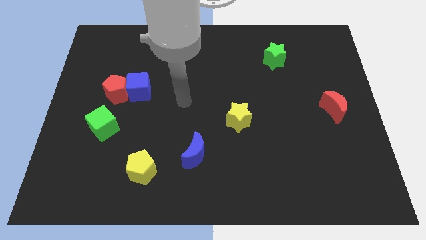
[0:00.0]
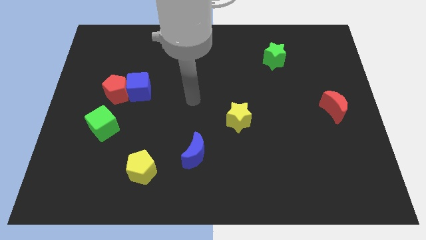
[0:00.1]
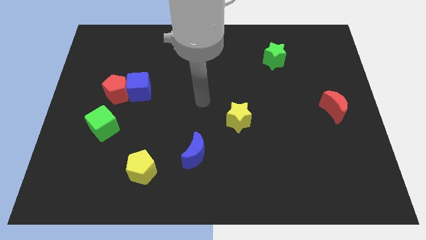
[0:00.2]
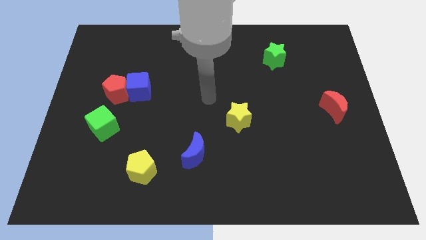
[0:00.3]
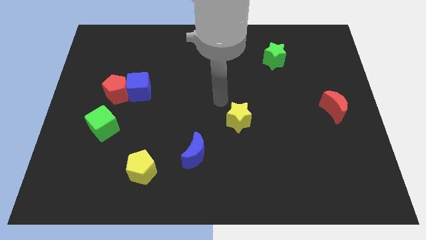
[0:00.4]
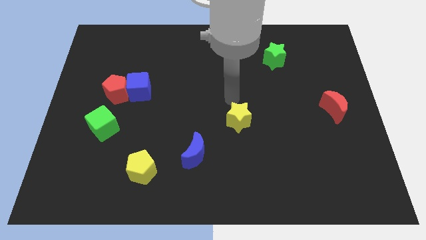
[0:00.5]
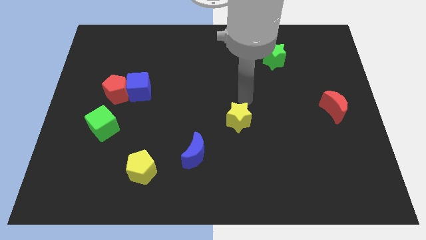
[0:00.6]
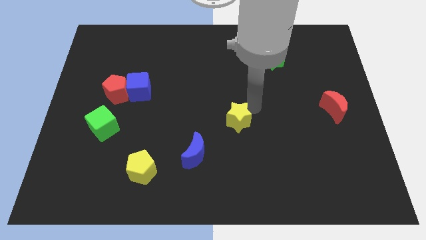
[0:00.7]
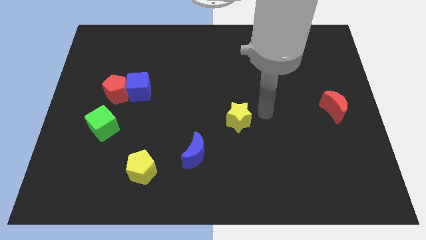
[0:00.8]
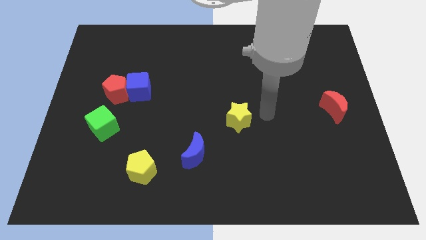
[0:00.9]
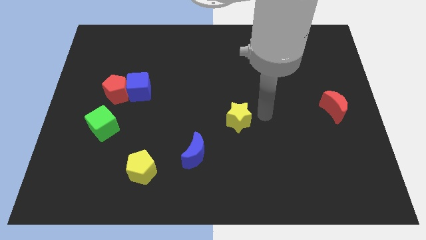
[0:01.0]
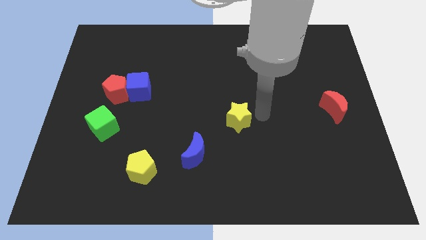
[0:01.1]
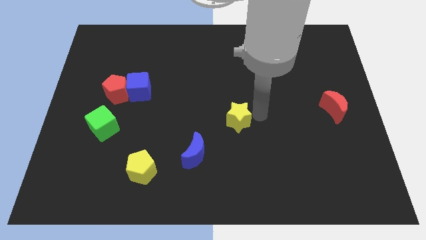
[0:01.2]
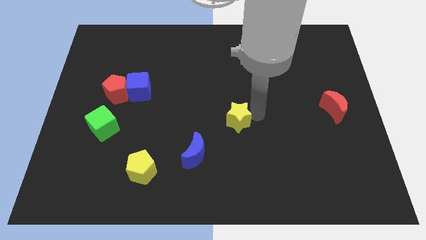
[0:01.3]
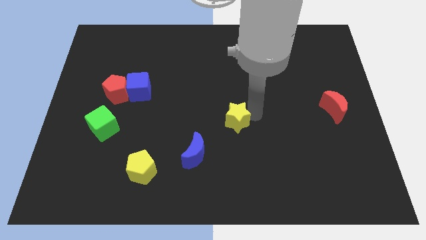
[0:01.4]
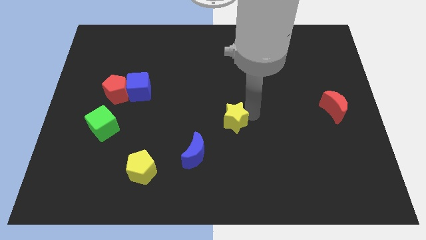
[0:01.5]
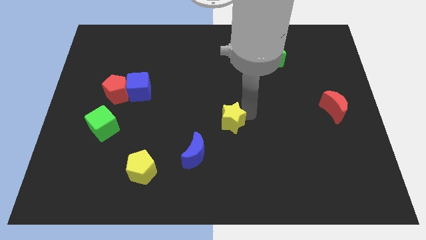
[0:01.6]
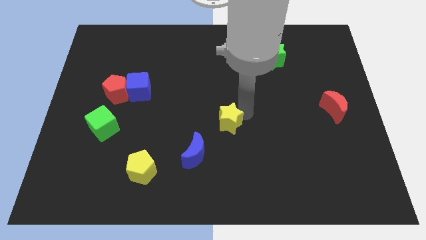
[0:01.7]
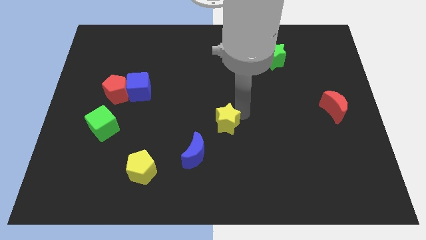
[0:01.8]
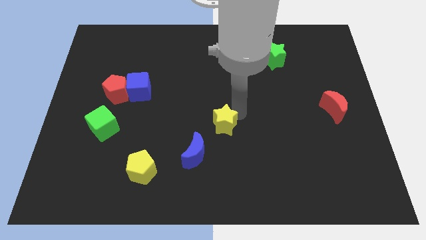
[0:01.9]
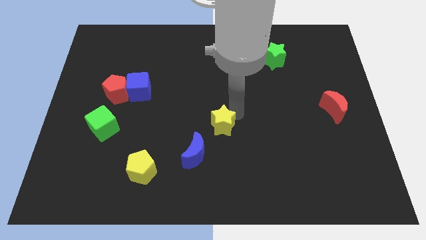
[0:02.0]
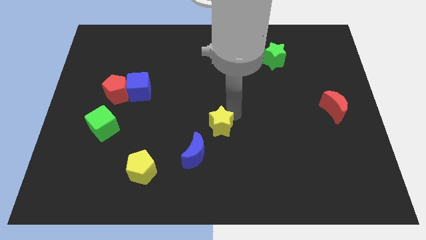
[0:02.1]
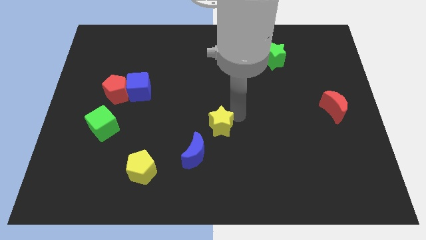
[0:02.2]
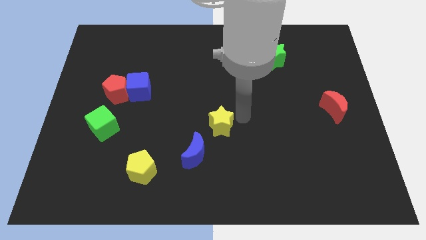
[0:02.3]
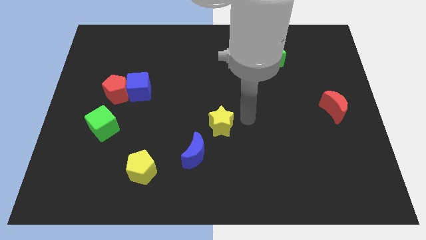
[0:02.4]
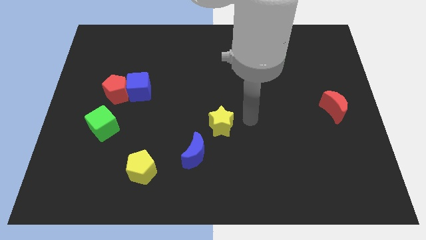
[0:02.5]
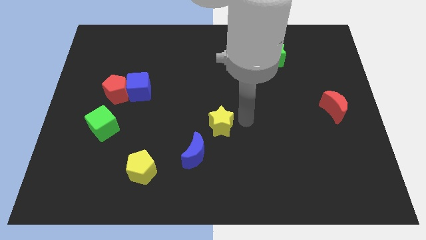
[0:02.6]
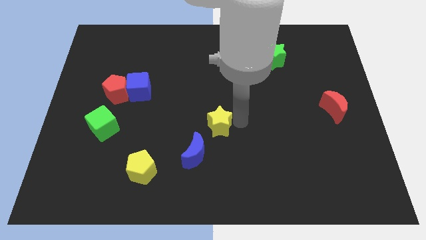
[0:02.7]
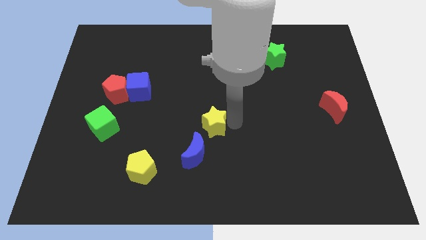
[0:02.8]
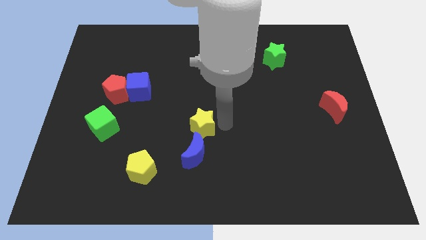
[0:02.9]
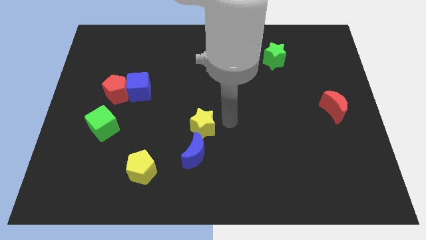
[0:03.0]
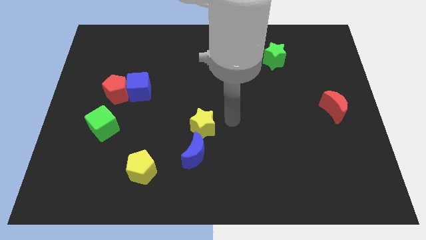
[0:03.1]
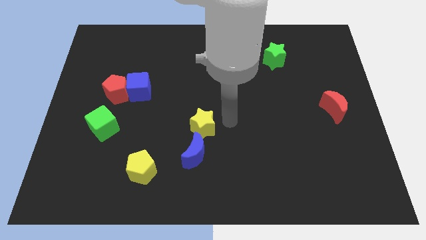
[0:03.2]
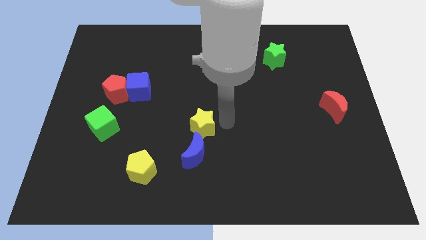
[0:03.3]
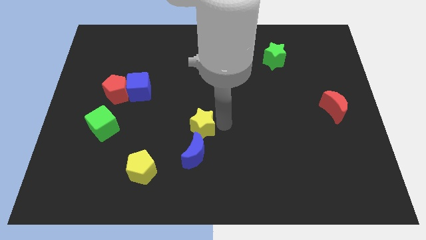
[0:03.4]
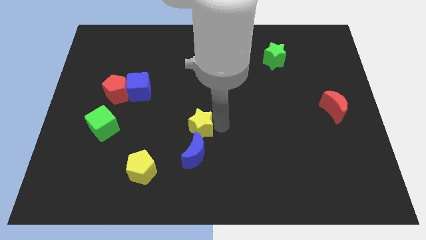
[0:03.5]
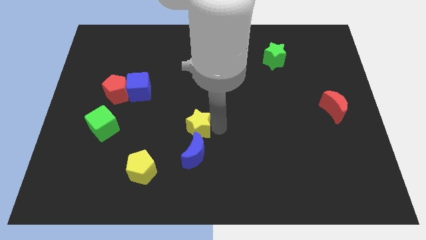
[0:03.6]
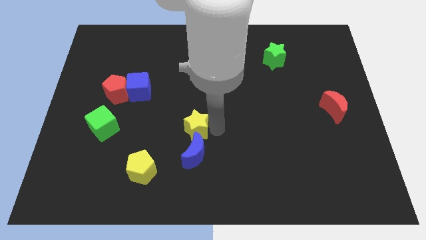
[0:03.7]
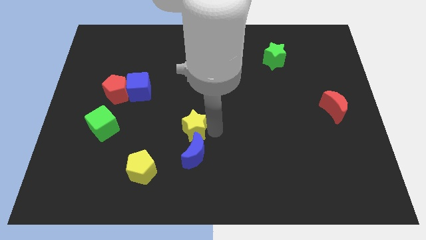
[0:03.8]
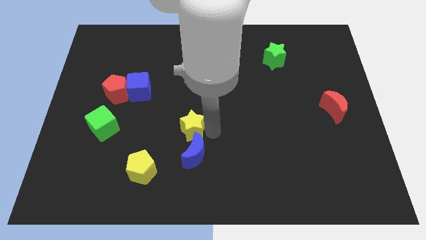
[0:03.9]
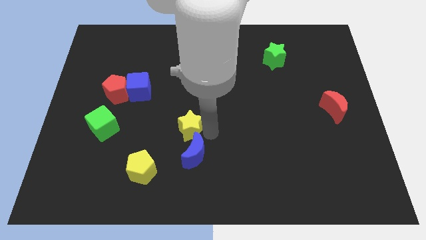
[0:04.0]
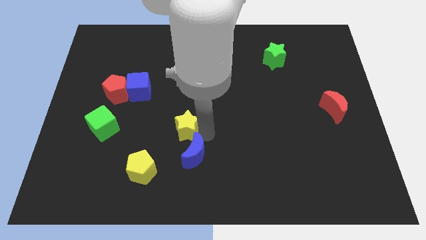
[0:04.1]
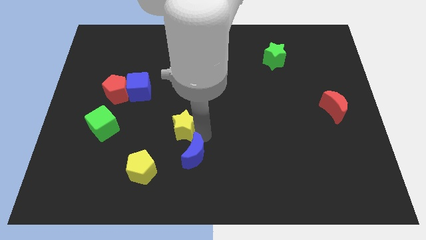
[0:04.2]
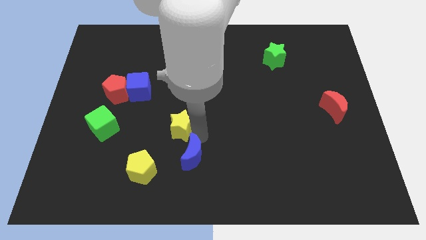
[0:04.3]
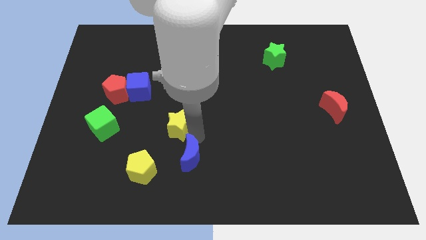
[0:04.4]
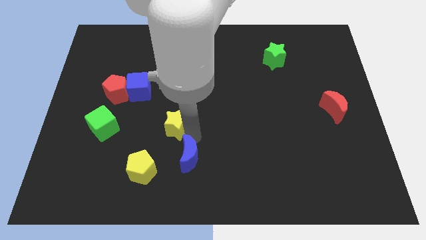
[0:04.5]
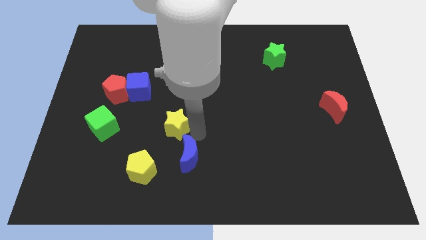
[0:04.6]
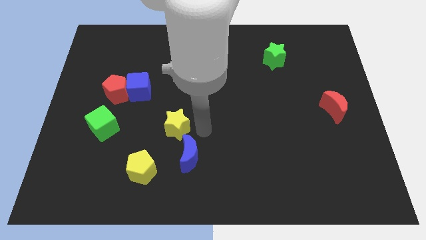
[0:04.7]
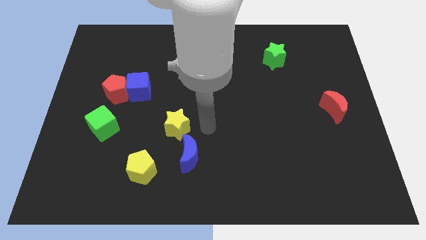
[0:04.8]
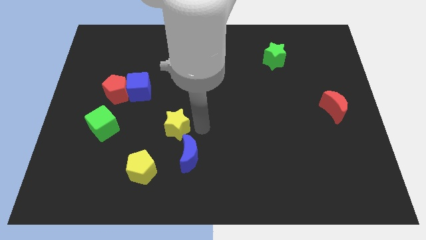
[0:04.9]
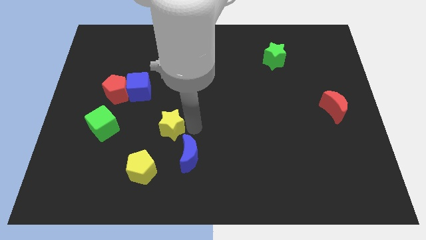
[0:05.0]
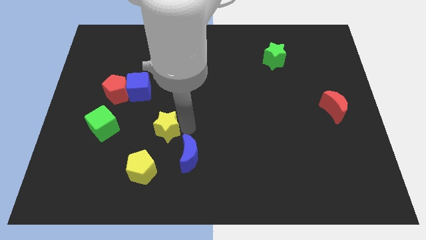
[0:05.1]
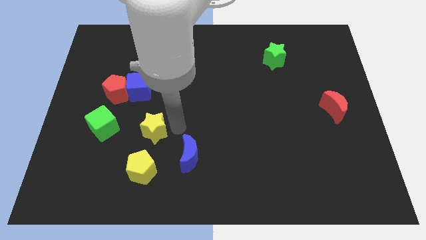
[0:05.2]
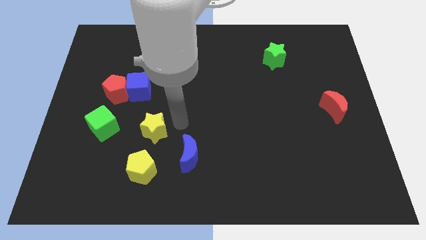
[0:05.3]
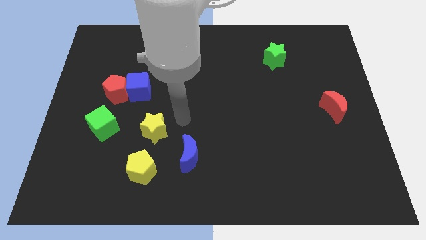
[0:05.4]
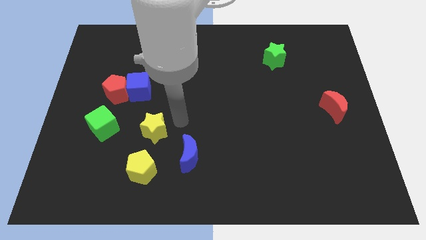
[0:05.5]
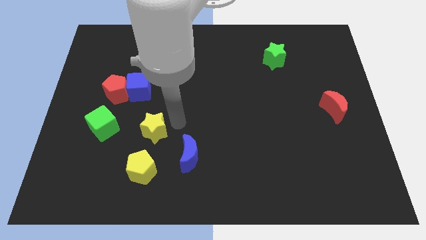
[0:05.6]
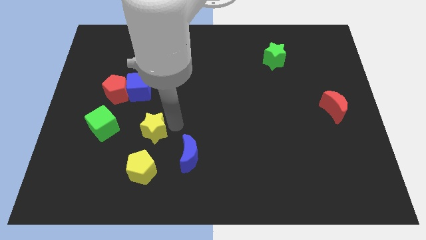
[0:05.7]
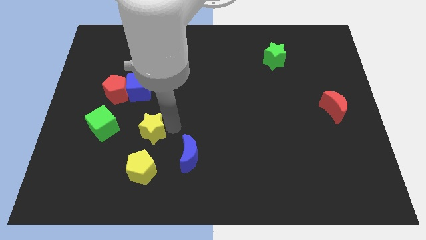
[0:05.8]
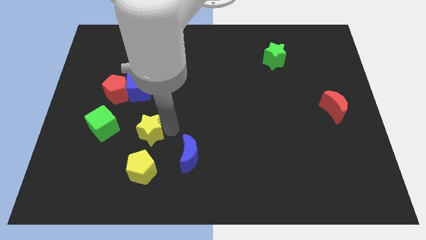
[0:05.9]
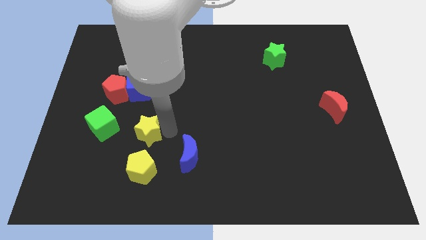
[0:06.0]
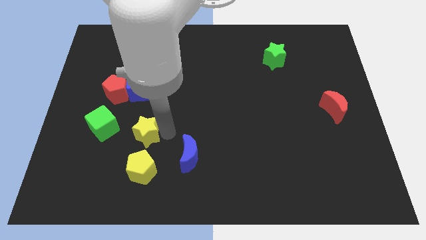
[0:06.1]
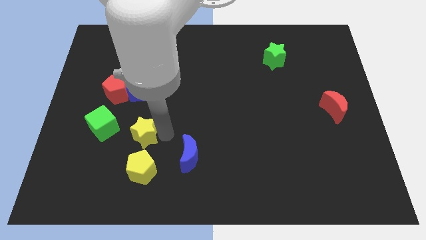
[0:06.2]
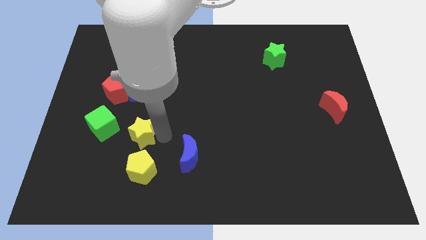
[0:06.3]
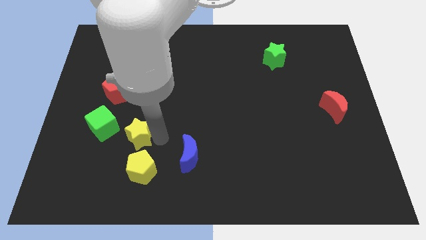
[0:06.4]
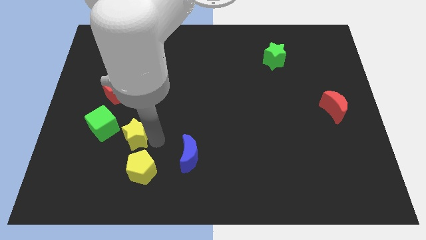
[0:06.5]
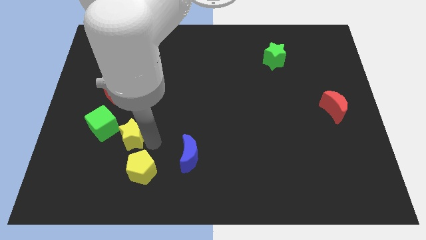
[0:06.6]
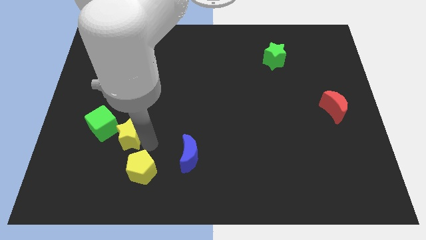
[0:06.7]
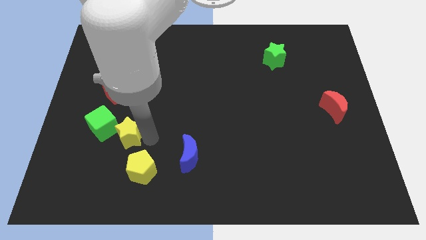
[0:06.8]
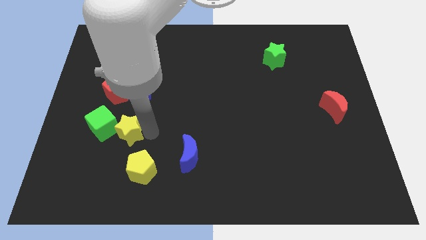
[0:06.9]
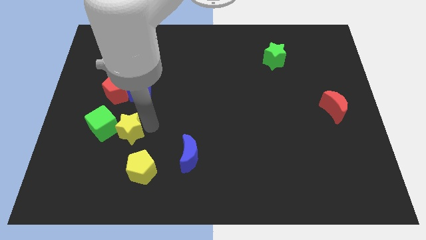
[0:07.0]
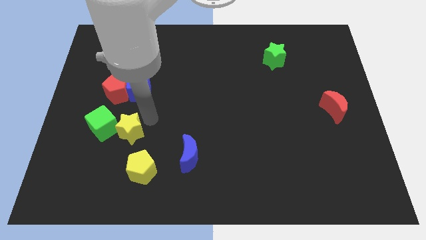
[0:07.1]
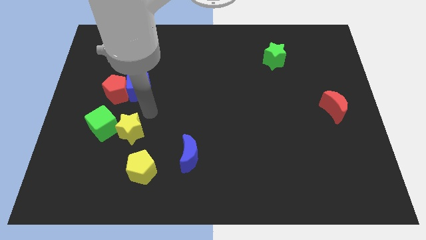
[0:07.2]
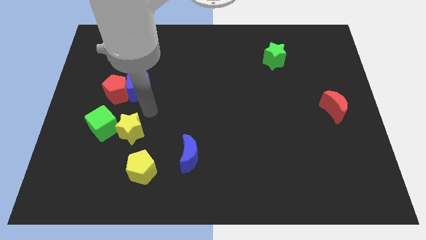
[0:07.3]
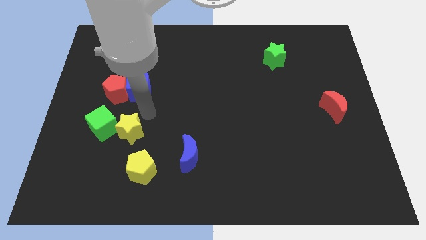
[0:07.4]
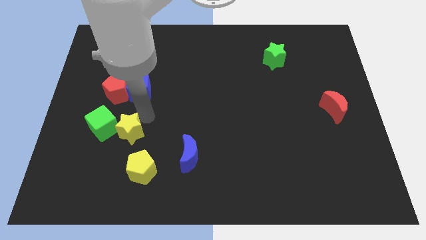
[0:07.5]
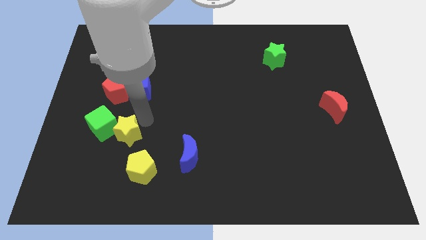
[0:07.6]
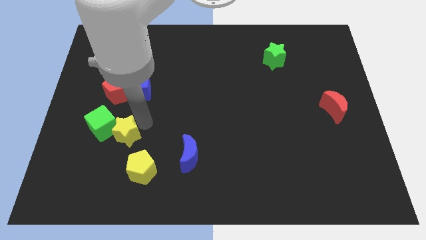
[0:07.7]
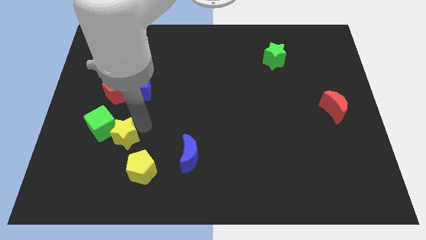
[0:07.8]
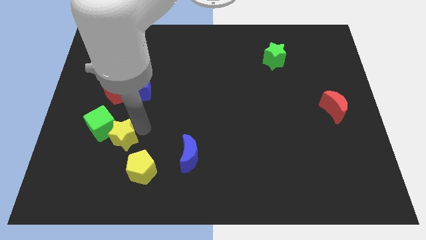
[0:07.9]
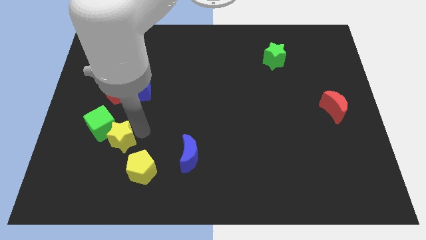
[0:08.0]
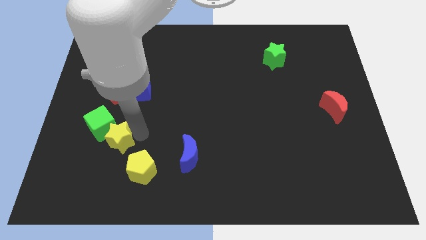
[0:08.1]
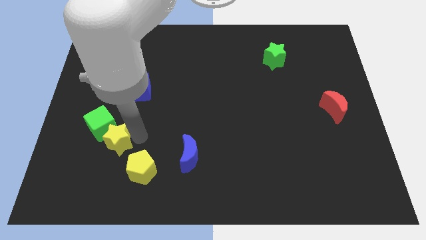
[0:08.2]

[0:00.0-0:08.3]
move the yellow star to the bottom of the green cube
